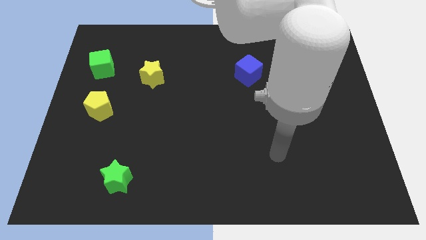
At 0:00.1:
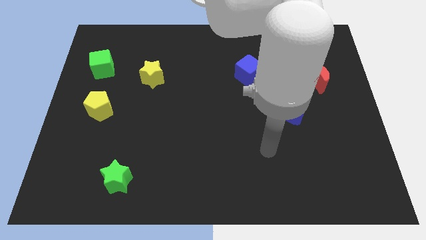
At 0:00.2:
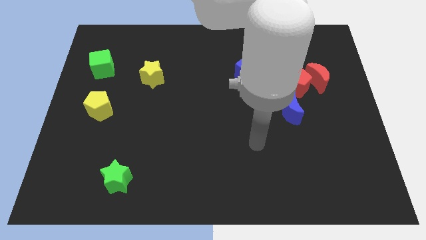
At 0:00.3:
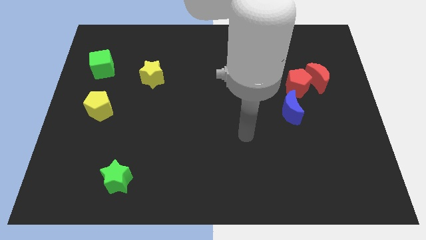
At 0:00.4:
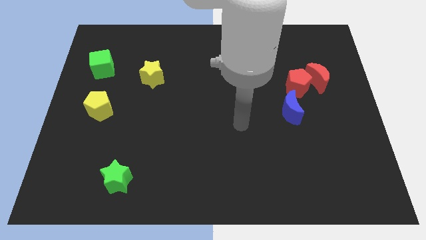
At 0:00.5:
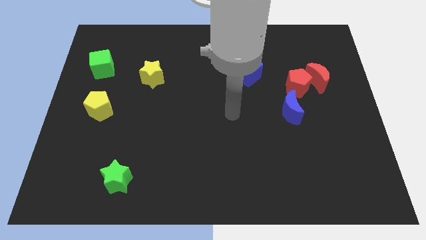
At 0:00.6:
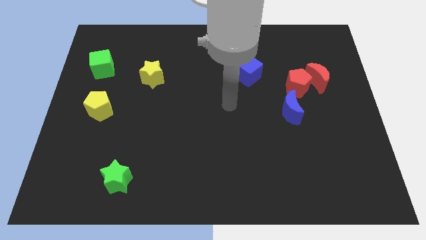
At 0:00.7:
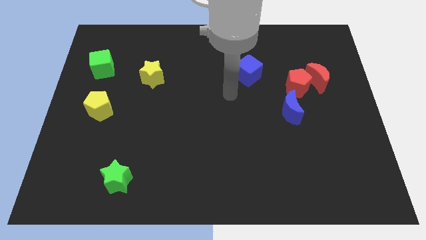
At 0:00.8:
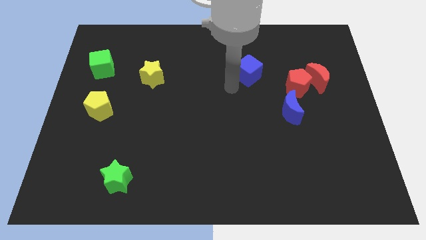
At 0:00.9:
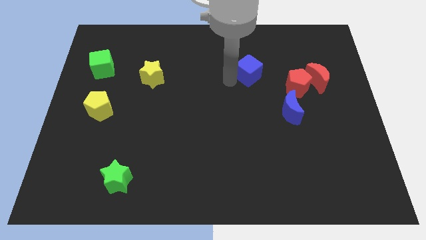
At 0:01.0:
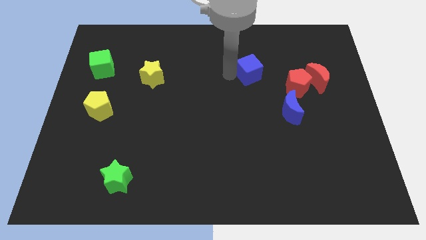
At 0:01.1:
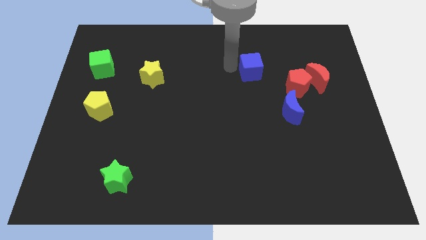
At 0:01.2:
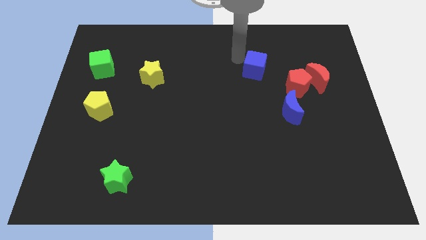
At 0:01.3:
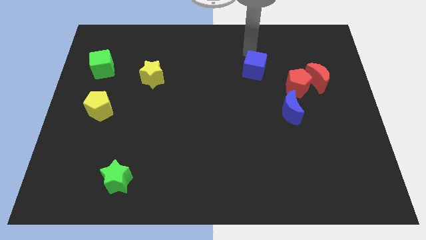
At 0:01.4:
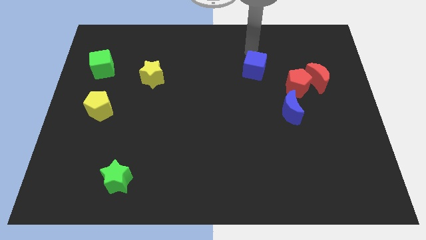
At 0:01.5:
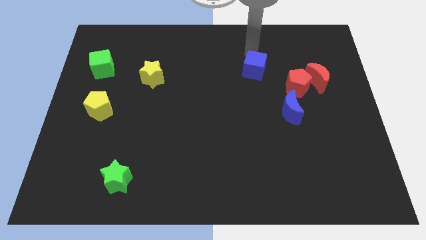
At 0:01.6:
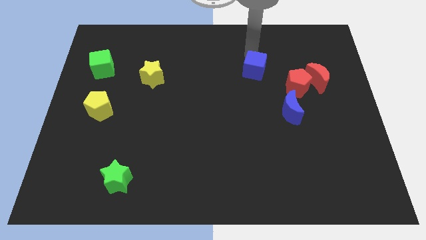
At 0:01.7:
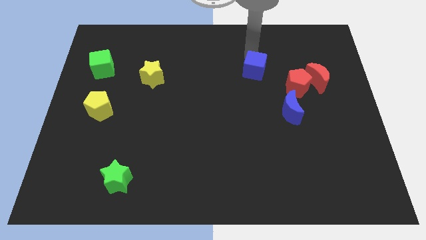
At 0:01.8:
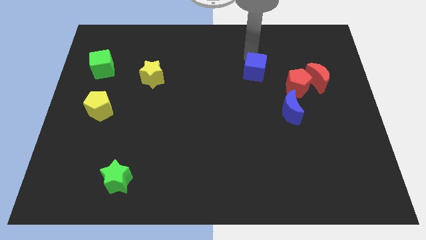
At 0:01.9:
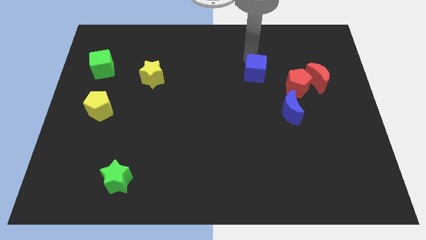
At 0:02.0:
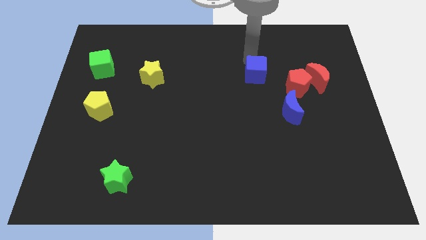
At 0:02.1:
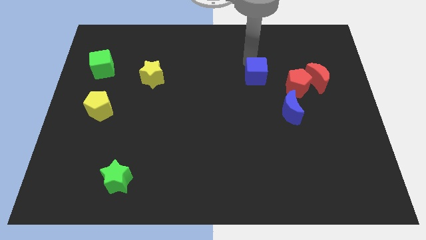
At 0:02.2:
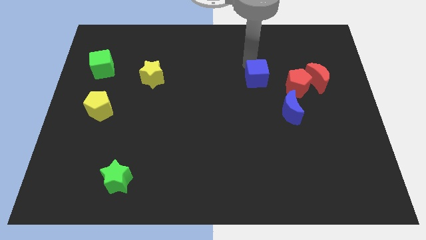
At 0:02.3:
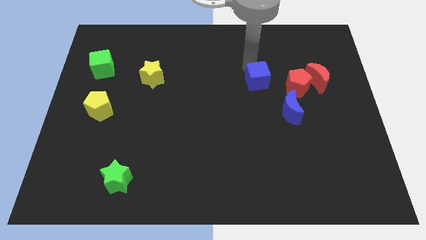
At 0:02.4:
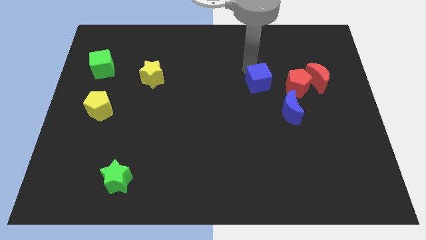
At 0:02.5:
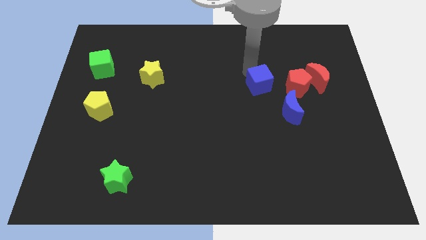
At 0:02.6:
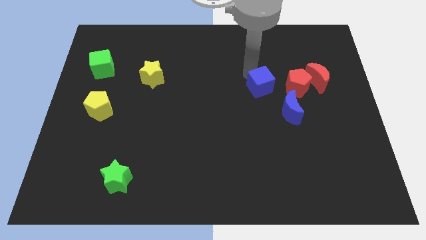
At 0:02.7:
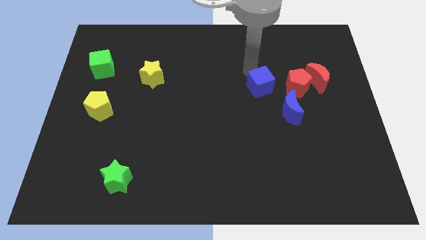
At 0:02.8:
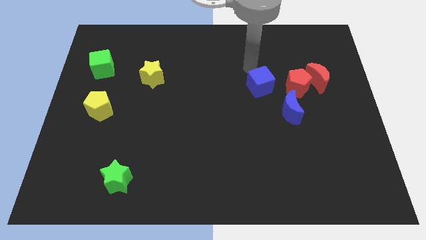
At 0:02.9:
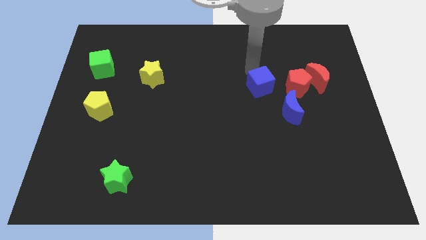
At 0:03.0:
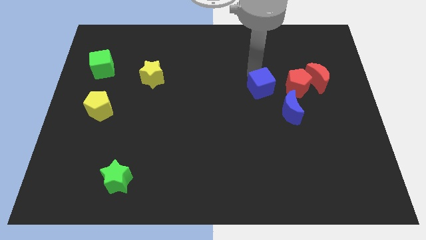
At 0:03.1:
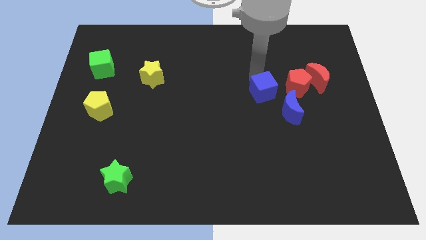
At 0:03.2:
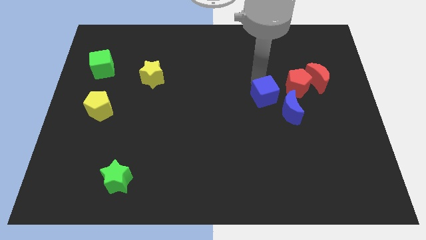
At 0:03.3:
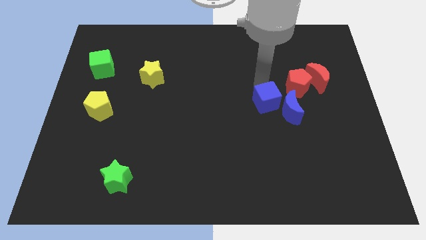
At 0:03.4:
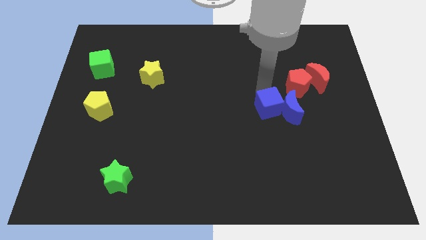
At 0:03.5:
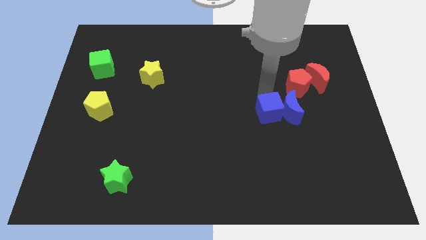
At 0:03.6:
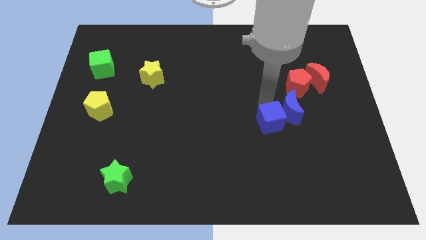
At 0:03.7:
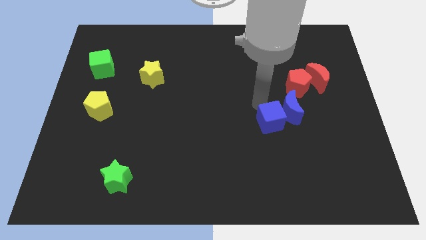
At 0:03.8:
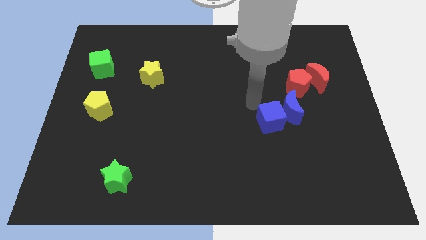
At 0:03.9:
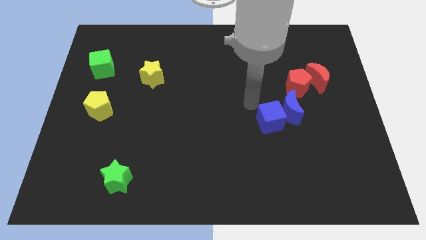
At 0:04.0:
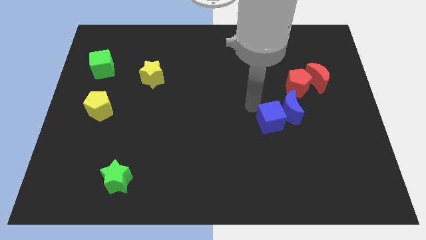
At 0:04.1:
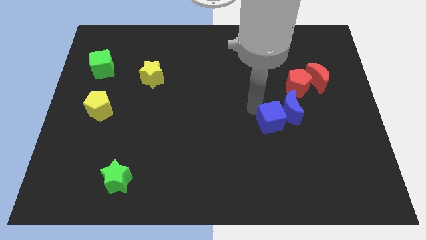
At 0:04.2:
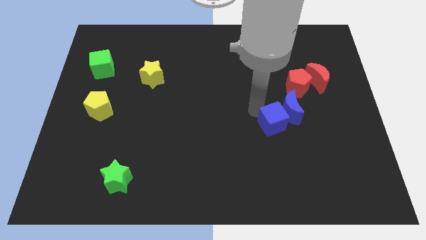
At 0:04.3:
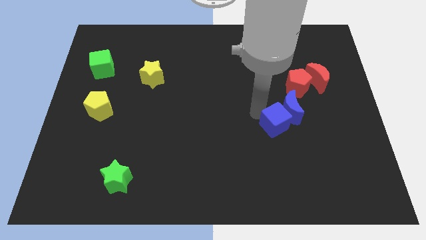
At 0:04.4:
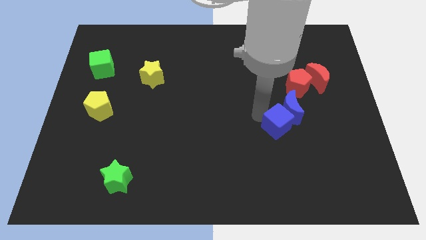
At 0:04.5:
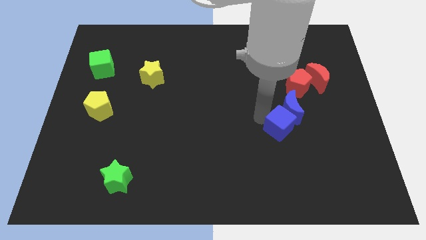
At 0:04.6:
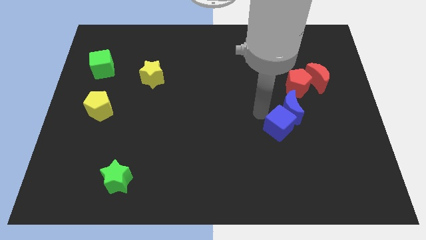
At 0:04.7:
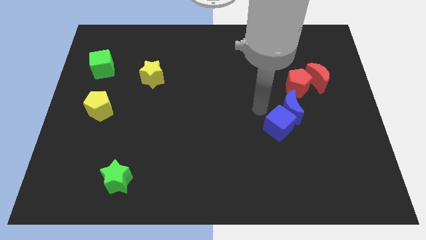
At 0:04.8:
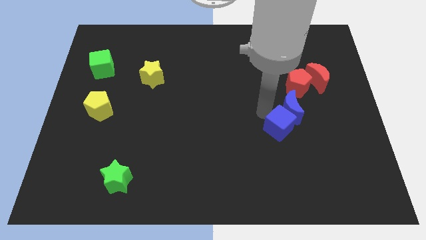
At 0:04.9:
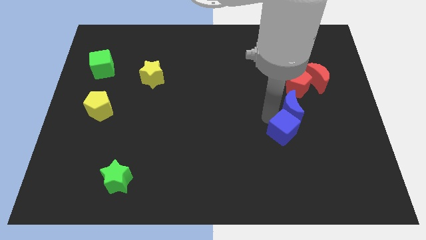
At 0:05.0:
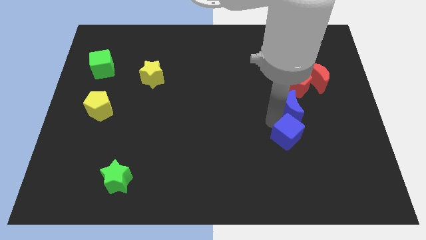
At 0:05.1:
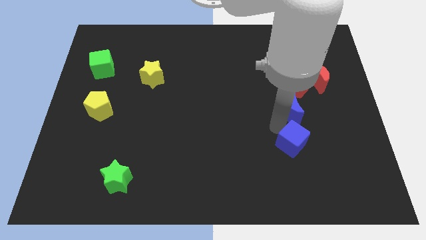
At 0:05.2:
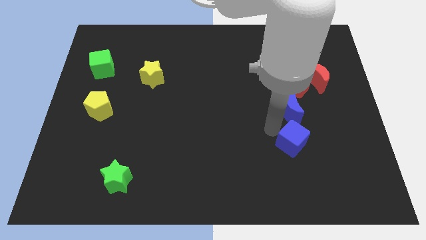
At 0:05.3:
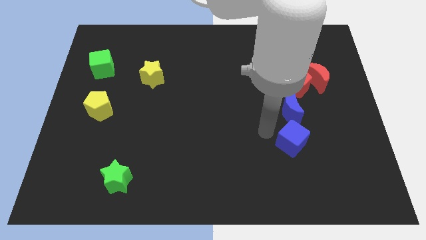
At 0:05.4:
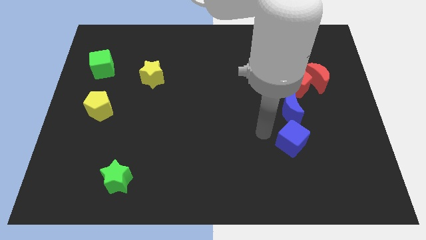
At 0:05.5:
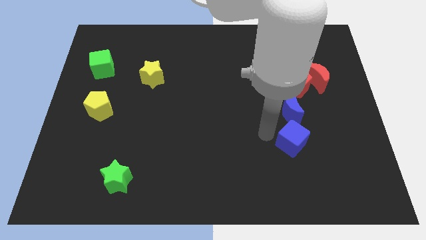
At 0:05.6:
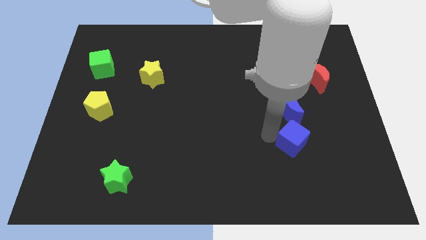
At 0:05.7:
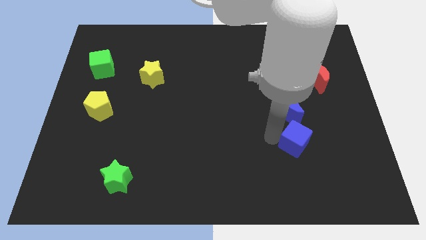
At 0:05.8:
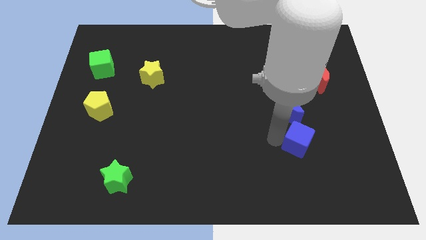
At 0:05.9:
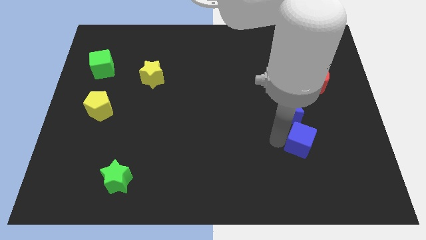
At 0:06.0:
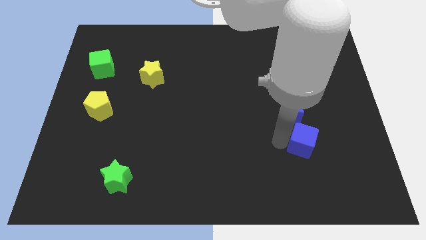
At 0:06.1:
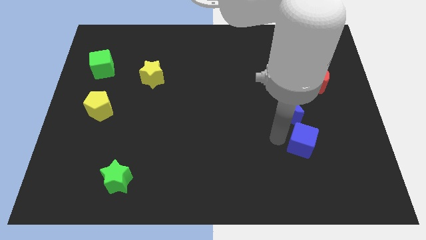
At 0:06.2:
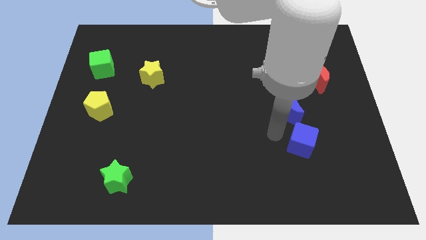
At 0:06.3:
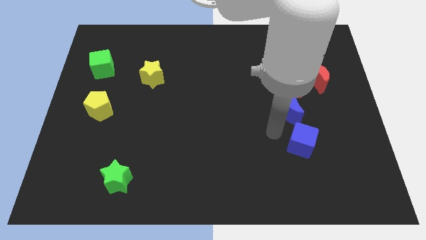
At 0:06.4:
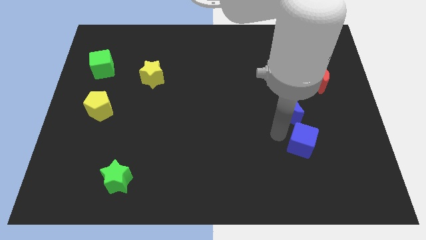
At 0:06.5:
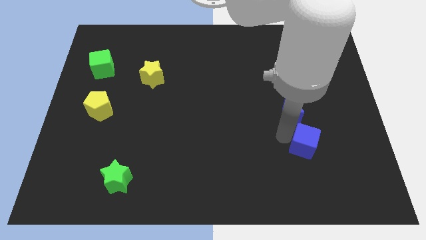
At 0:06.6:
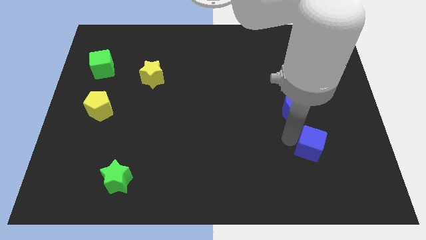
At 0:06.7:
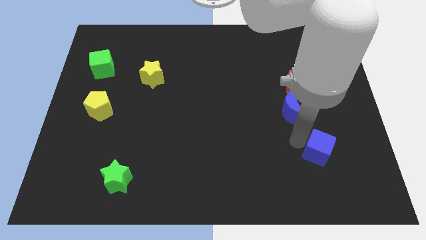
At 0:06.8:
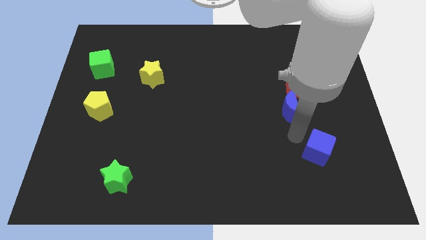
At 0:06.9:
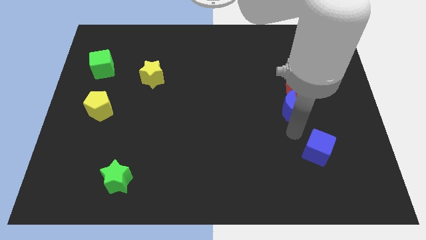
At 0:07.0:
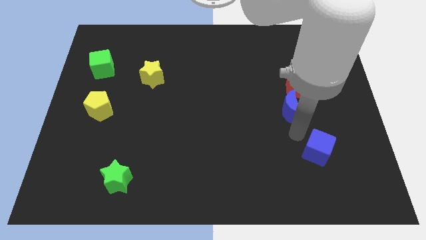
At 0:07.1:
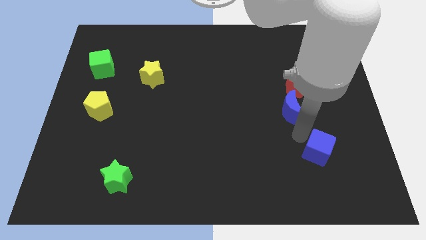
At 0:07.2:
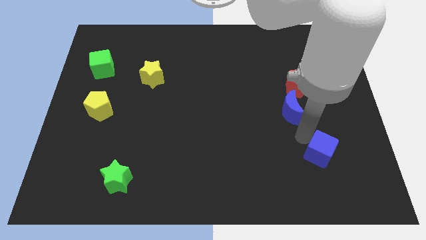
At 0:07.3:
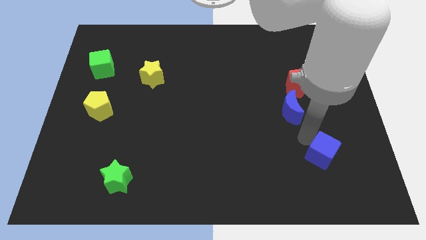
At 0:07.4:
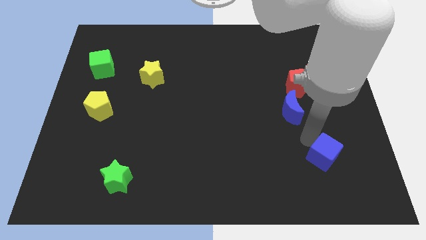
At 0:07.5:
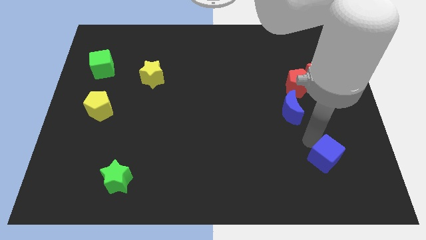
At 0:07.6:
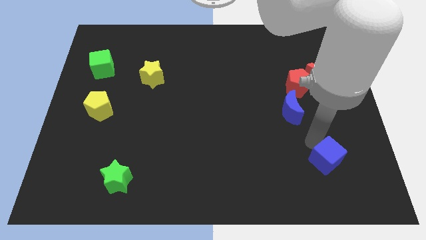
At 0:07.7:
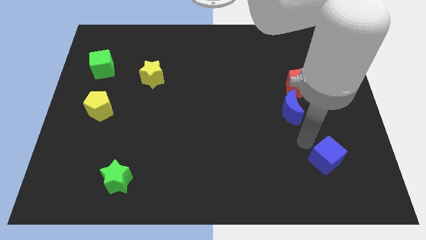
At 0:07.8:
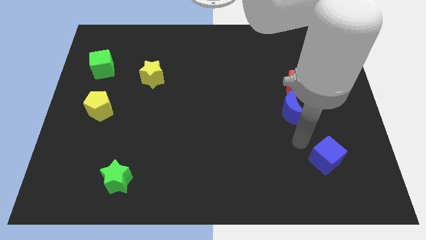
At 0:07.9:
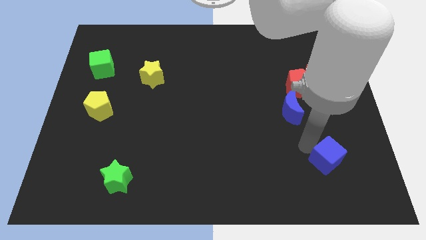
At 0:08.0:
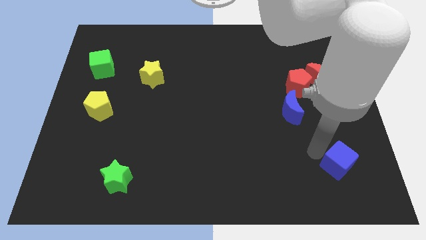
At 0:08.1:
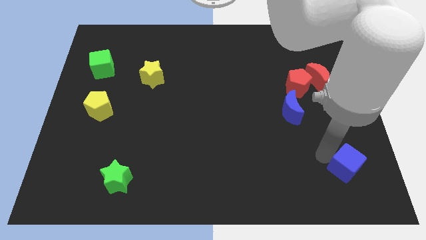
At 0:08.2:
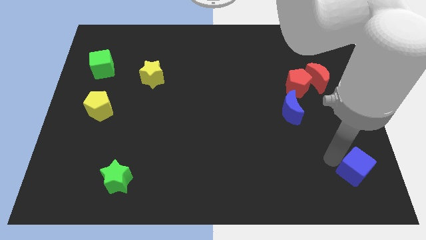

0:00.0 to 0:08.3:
slide the blue cube to the bottom right corner
